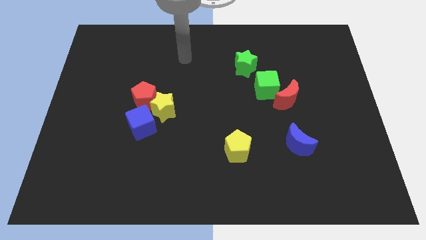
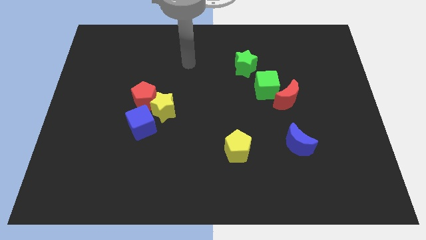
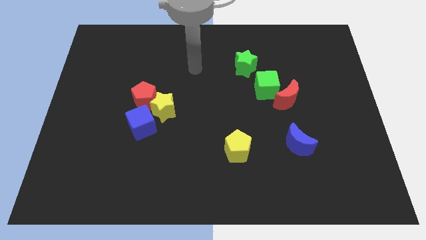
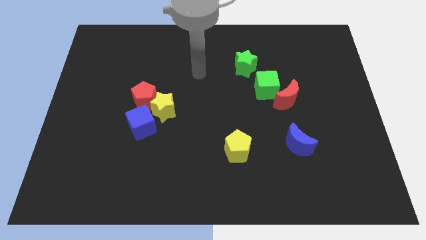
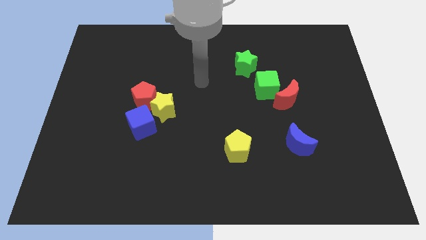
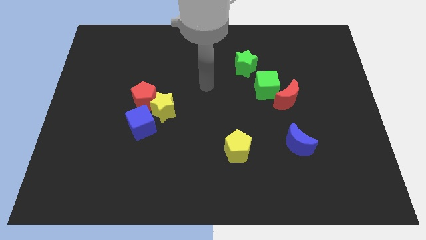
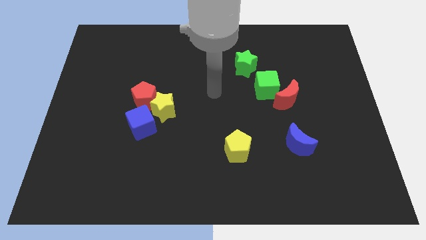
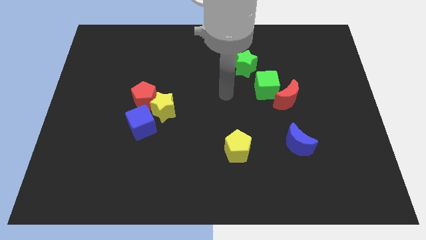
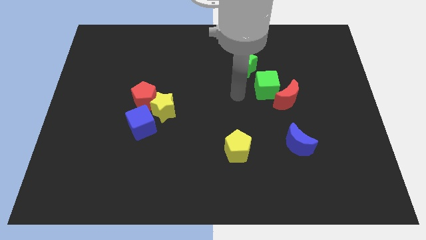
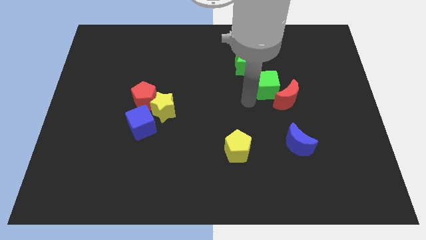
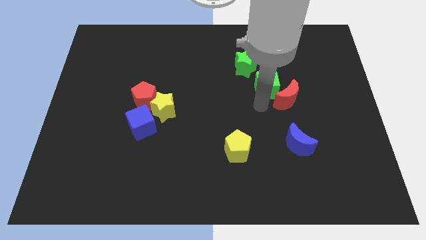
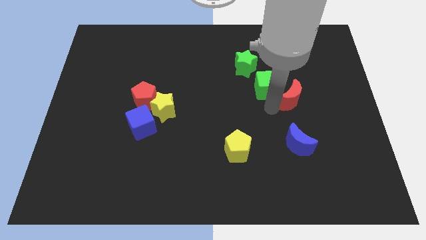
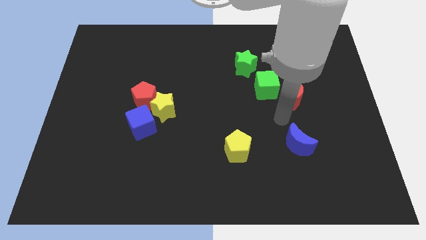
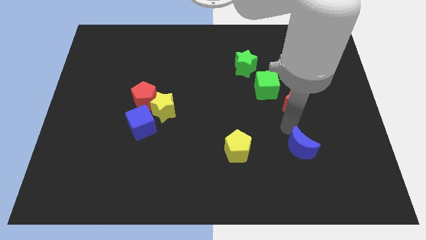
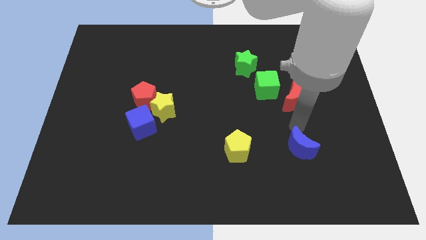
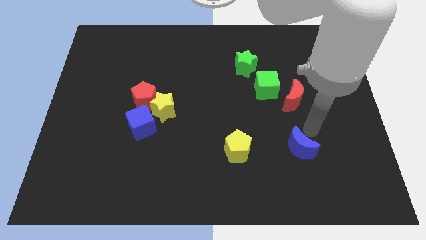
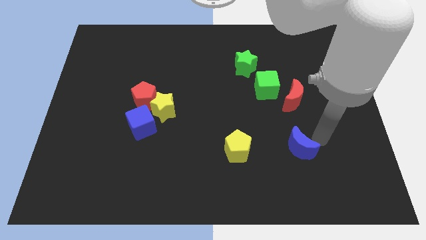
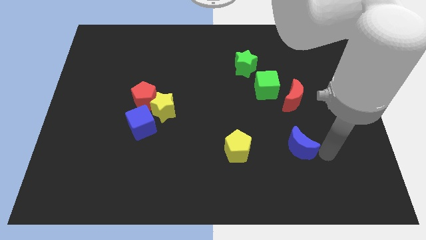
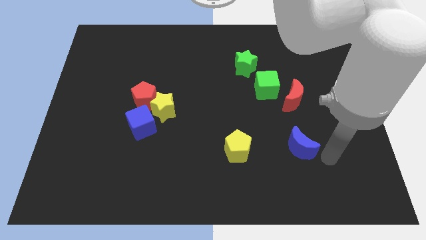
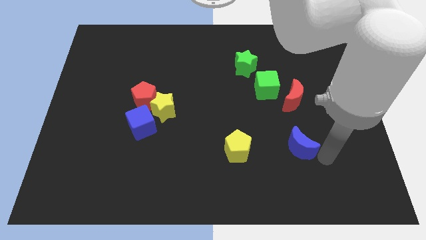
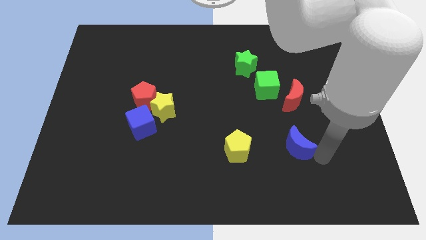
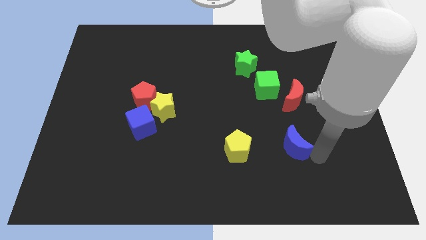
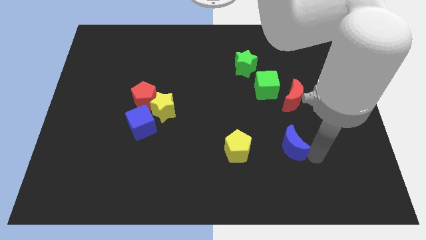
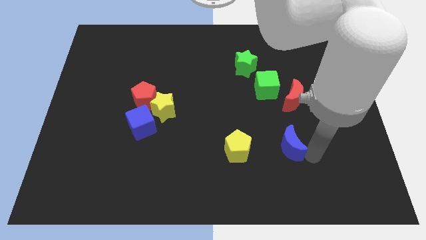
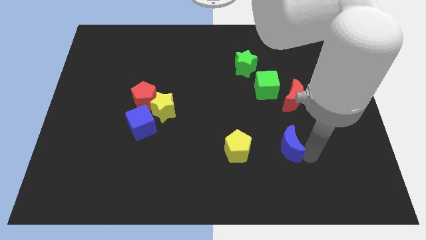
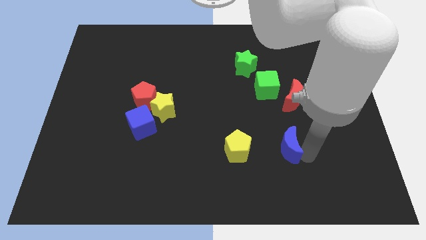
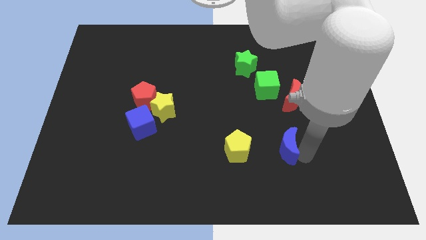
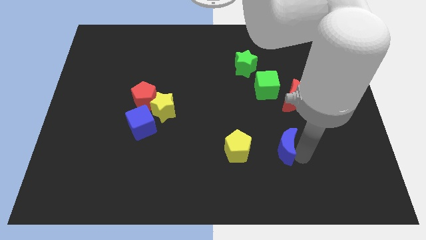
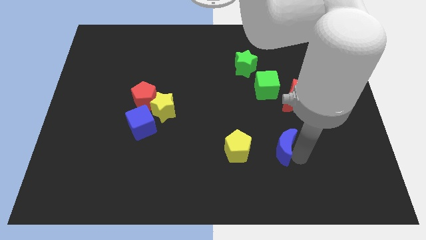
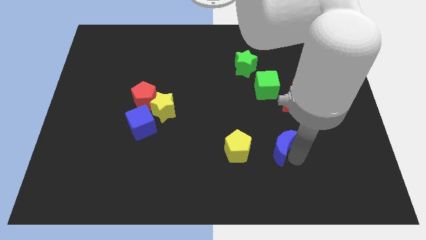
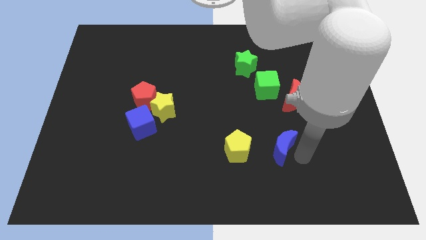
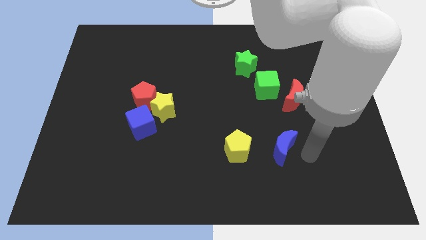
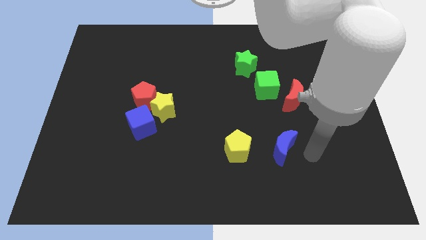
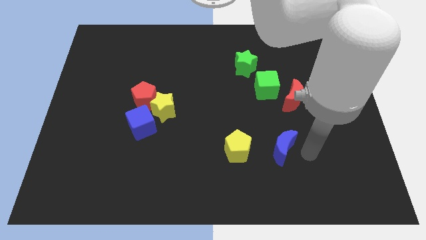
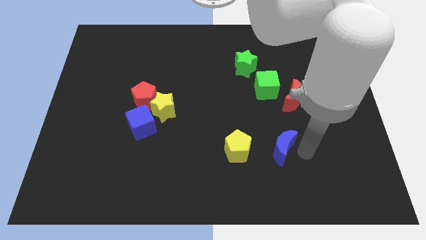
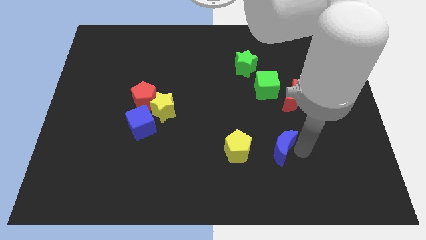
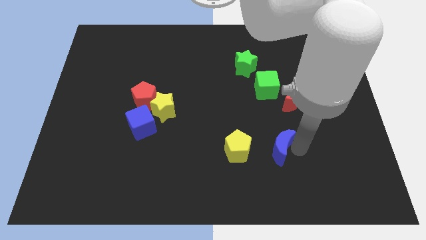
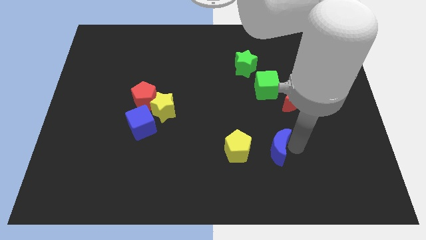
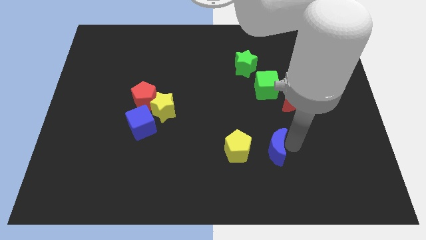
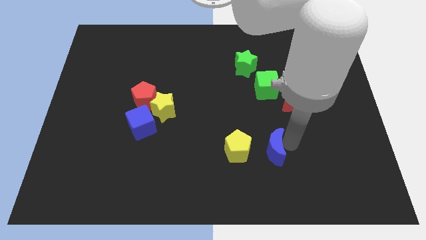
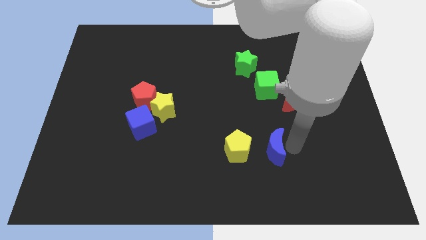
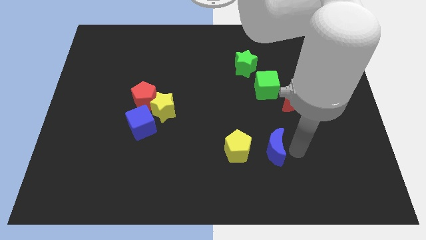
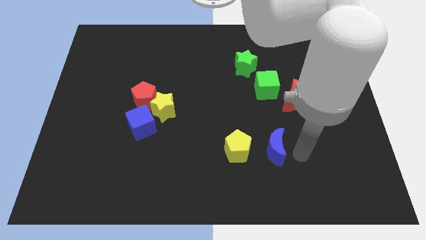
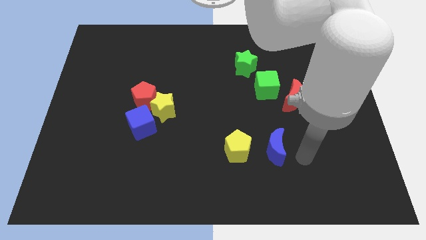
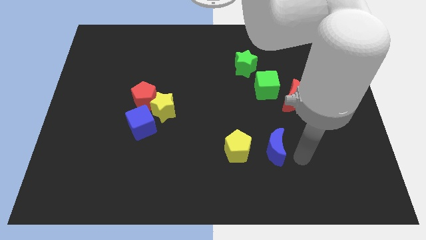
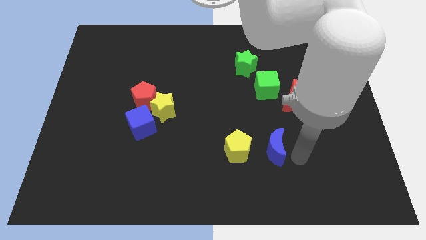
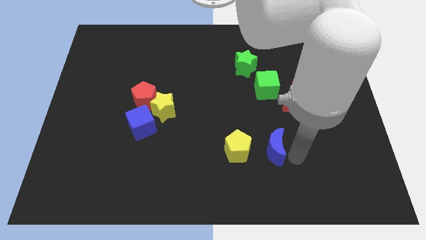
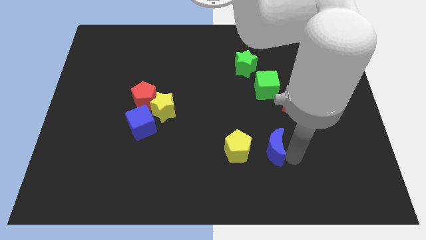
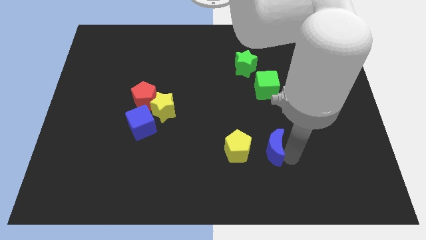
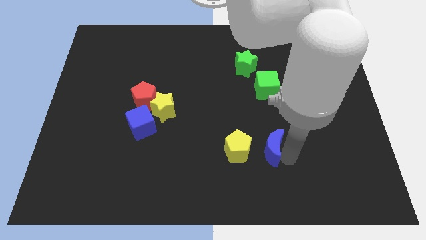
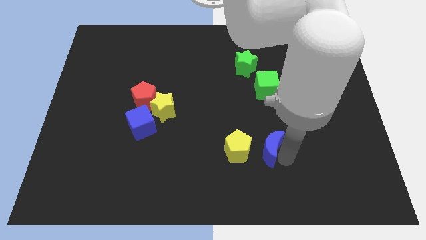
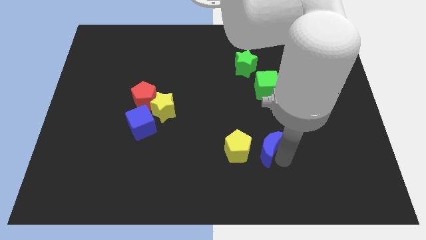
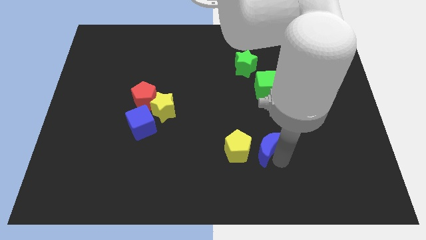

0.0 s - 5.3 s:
put the blue moon next to the yellow pentagon

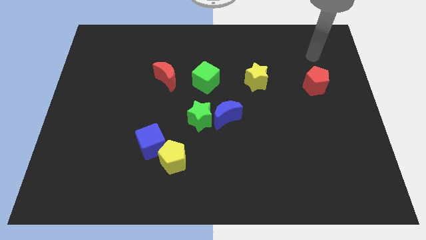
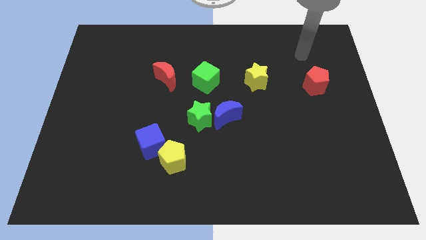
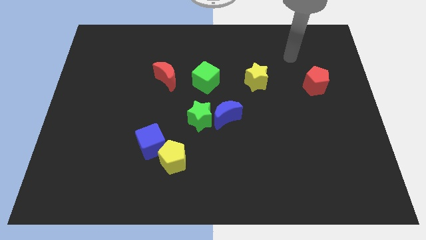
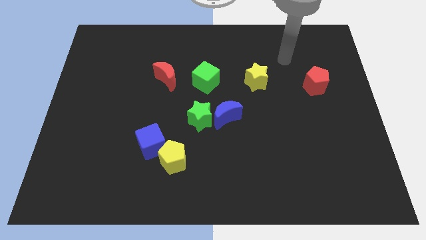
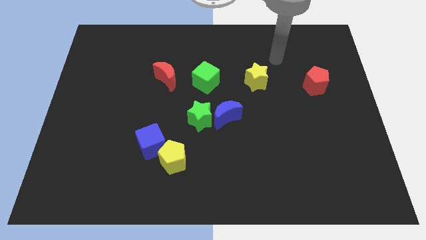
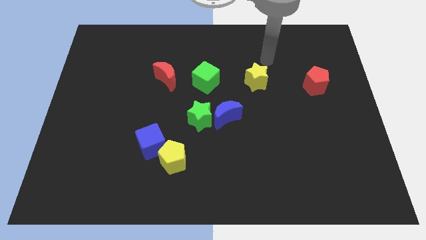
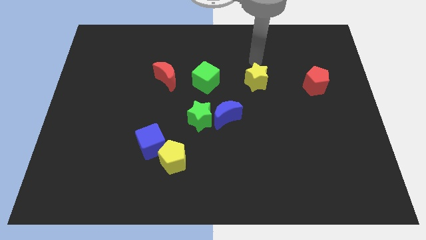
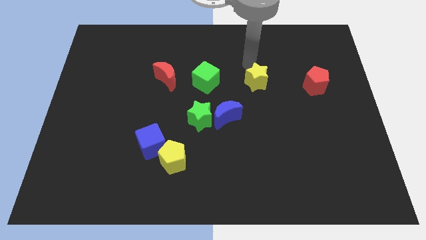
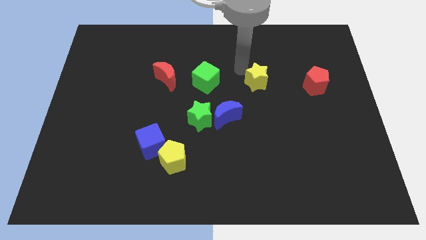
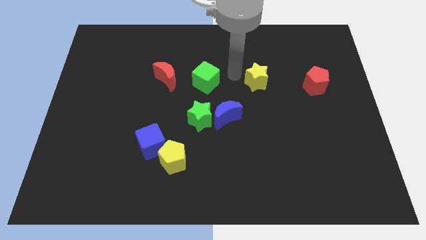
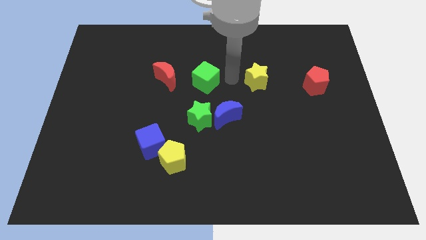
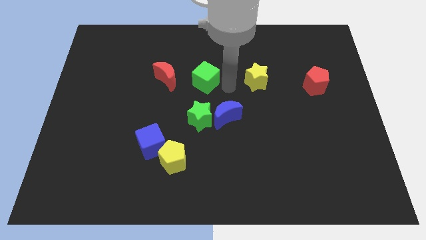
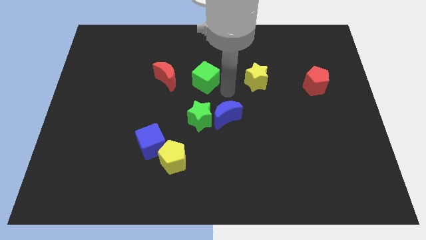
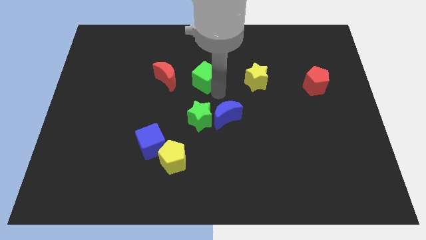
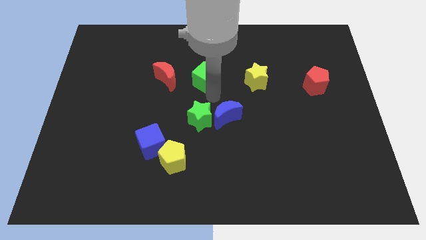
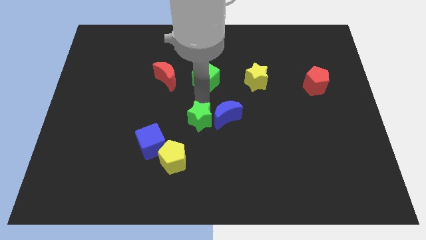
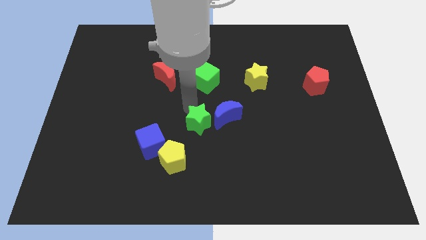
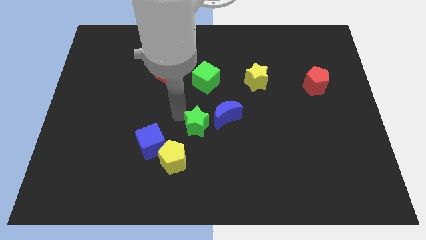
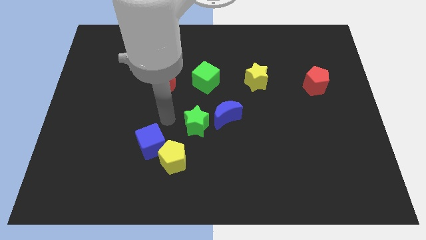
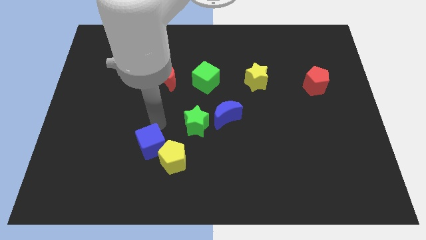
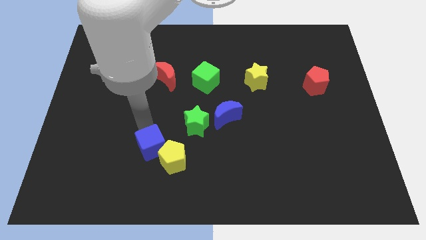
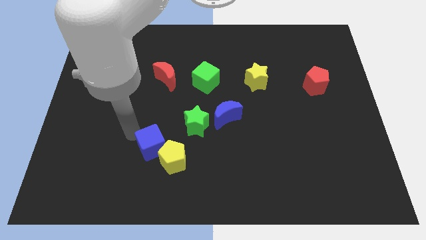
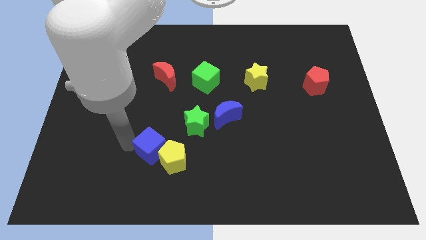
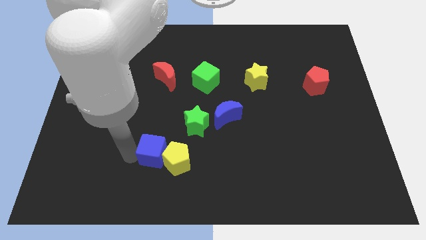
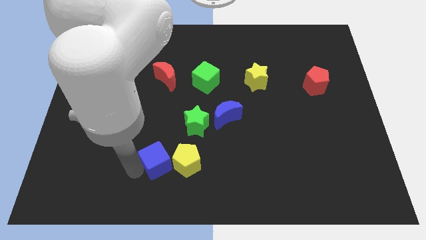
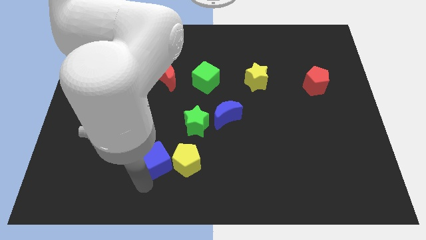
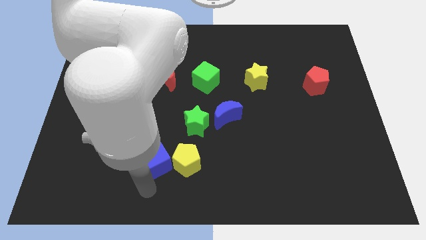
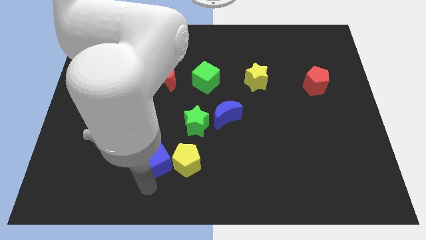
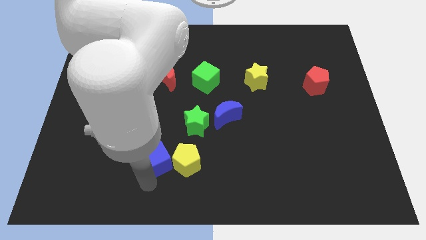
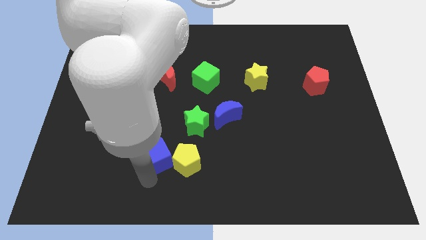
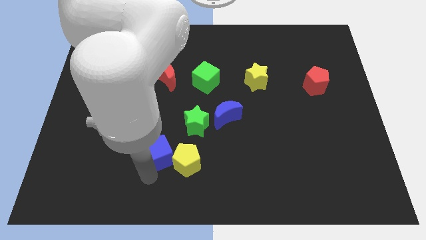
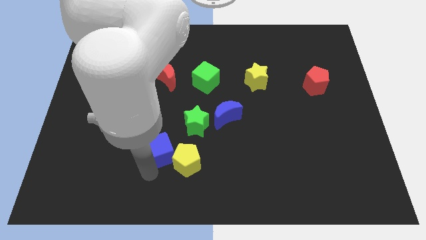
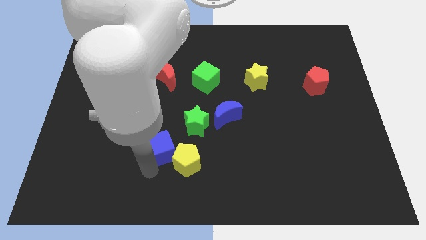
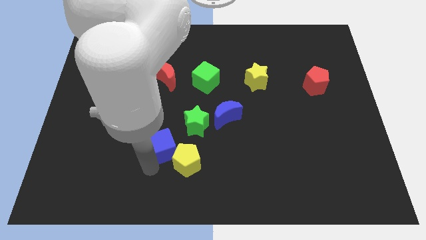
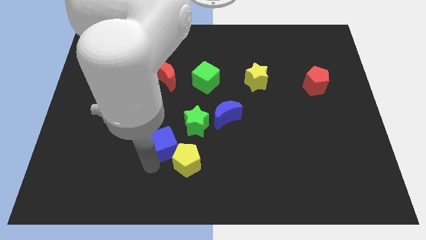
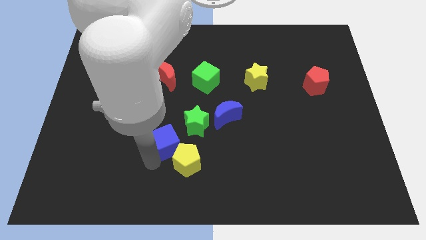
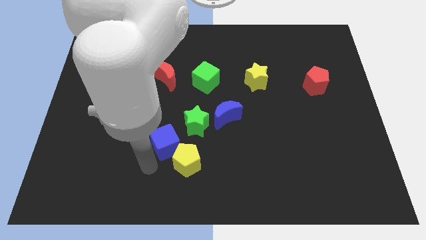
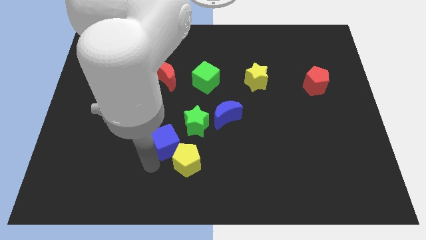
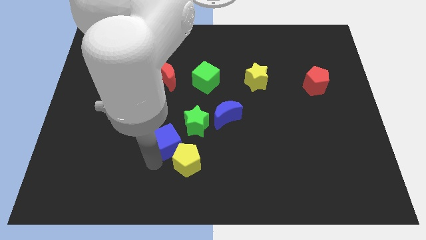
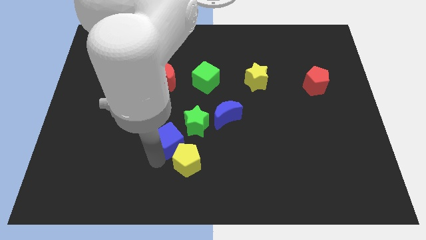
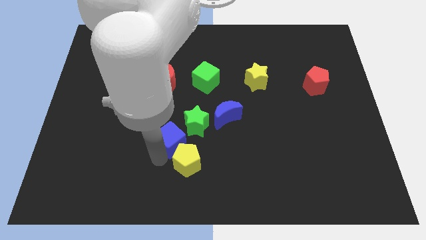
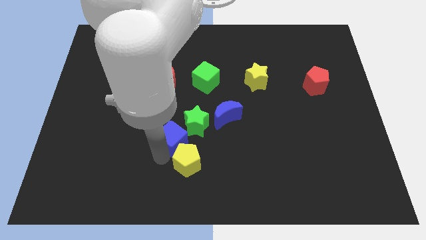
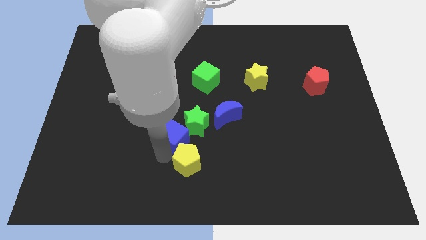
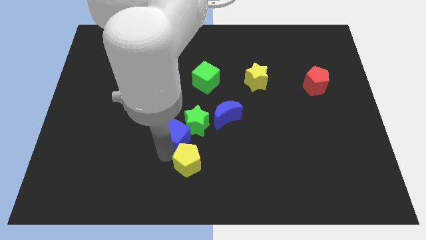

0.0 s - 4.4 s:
push the blue cube close to the green star
